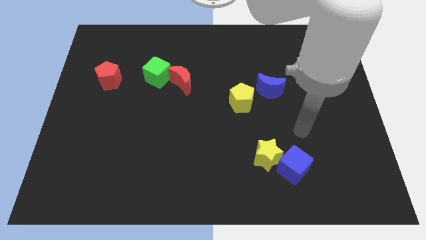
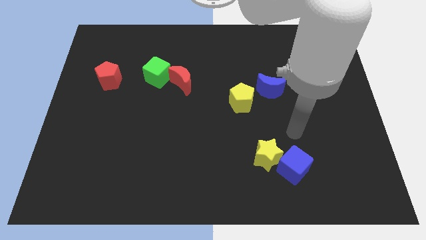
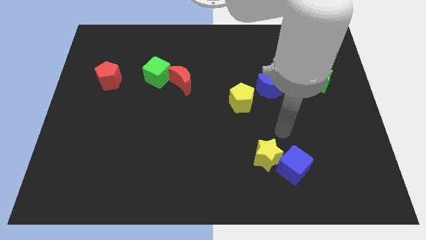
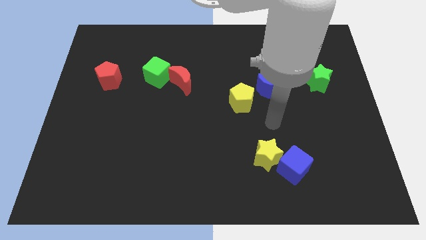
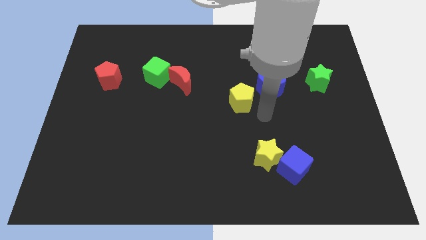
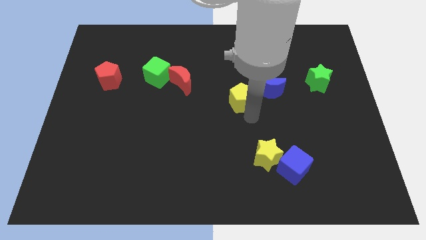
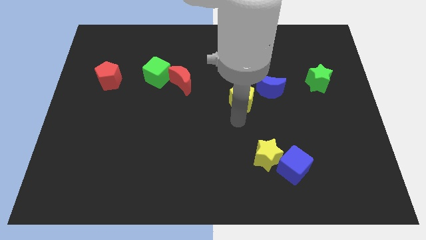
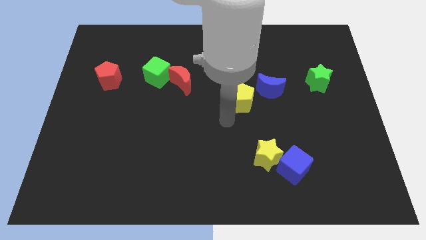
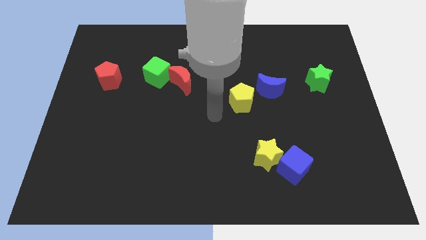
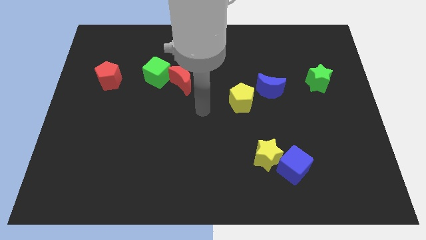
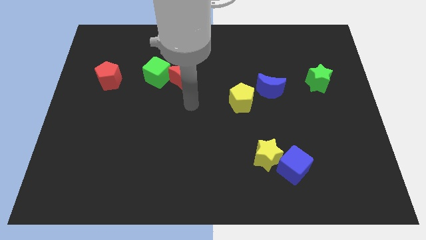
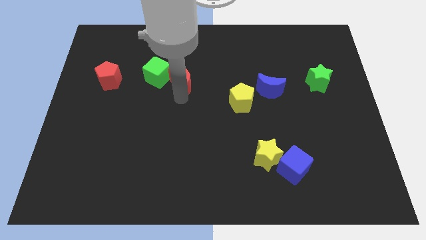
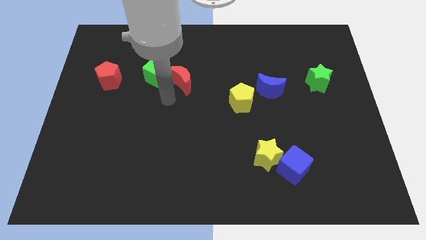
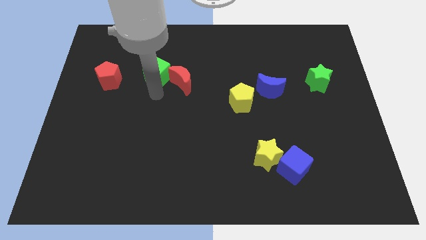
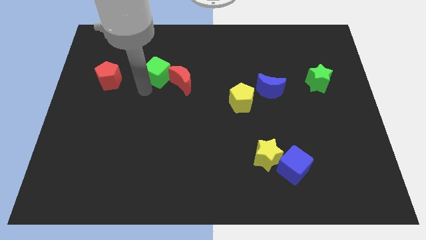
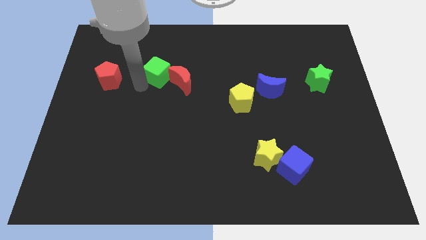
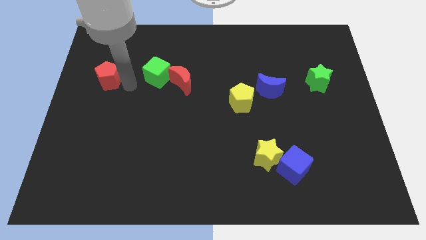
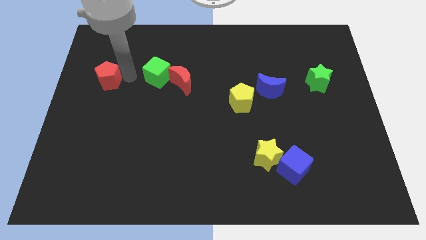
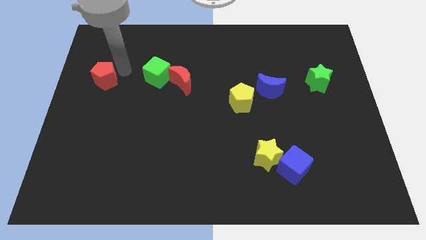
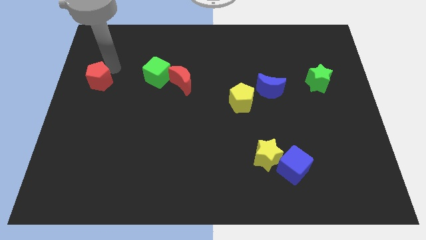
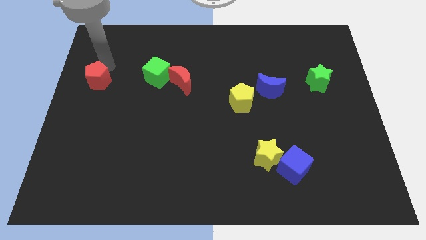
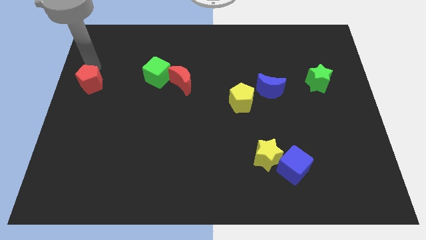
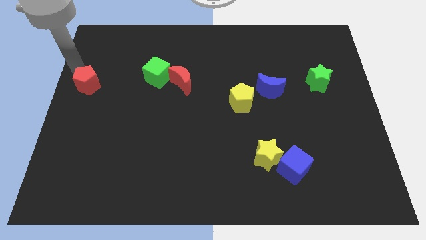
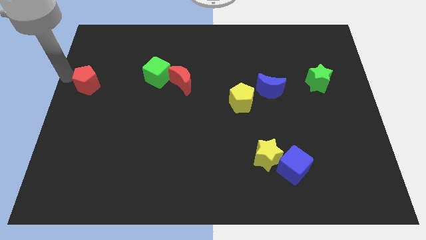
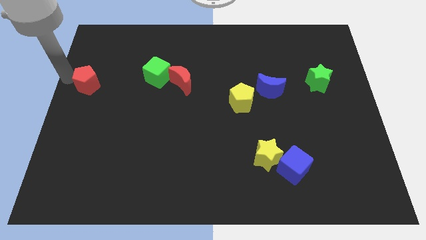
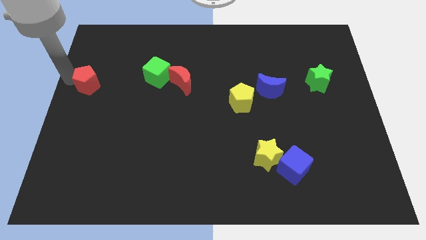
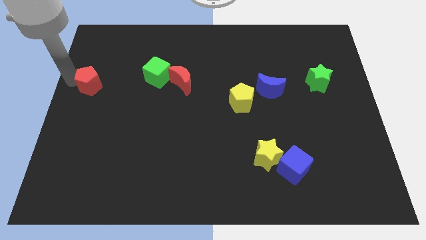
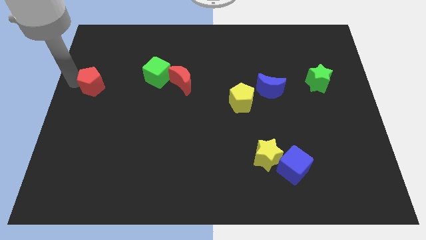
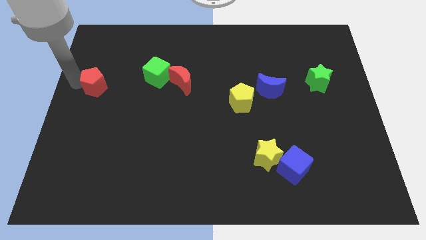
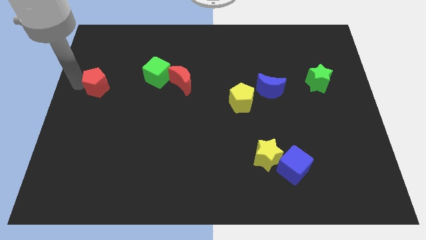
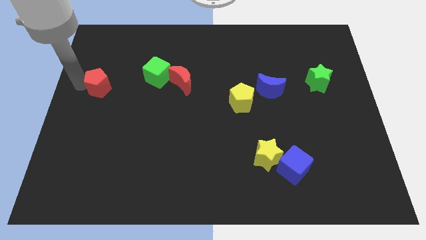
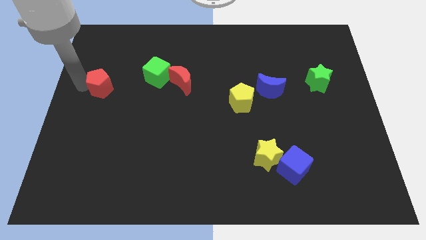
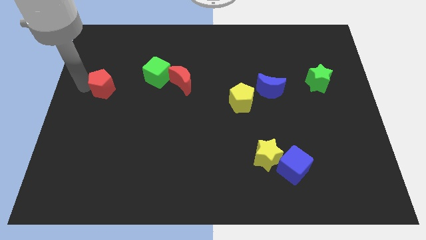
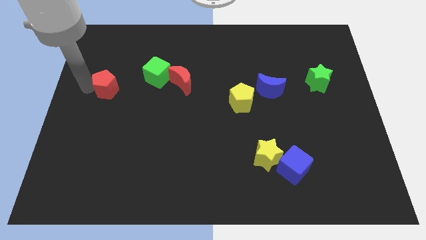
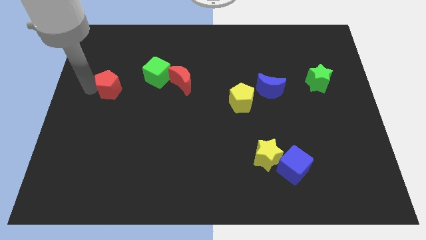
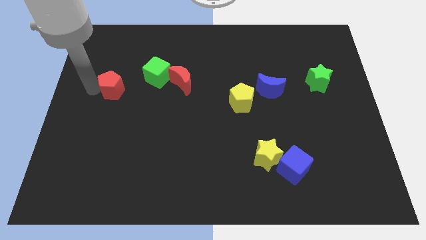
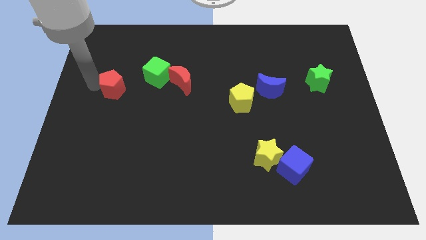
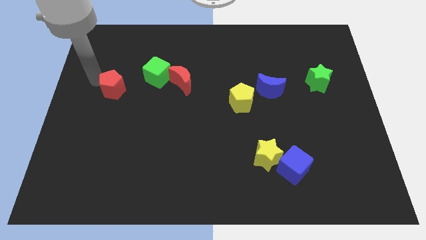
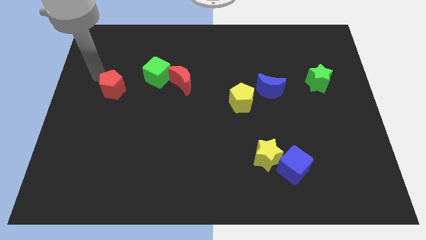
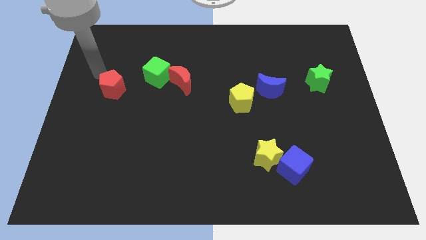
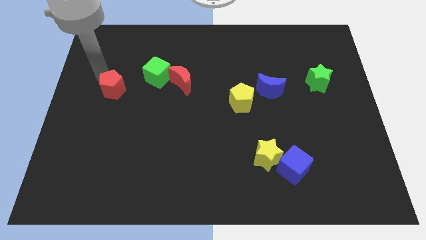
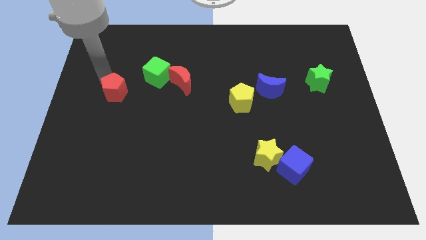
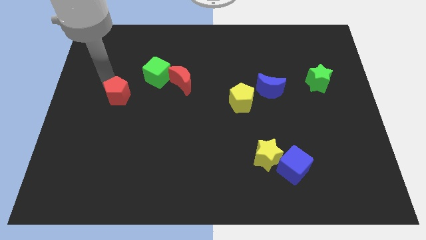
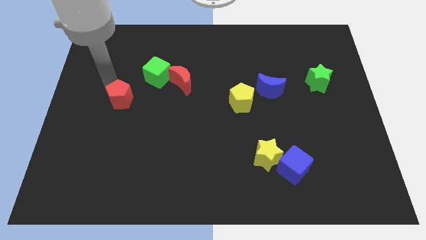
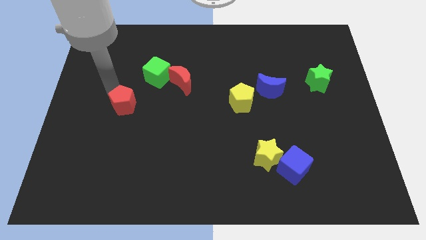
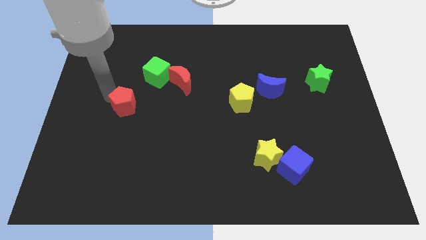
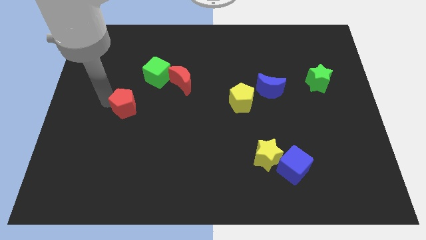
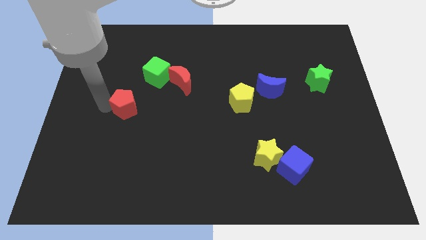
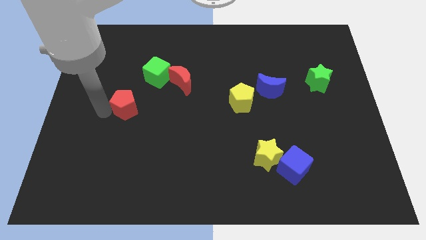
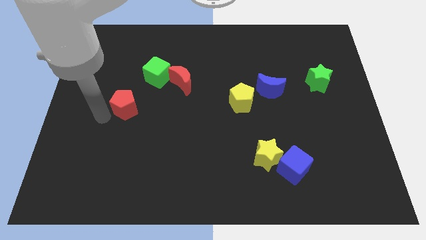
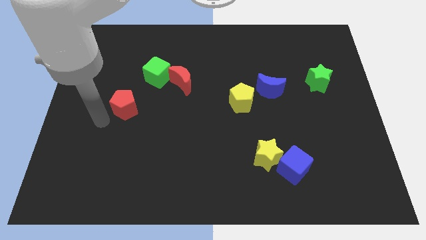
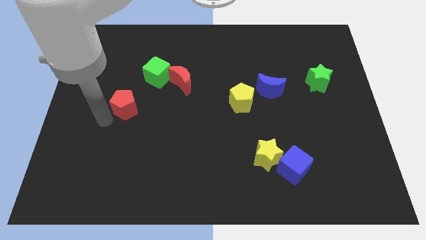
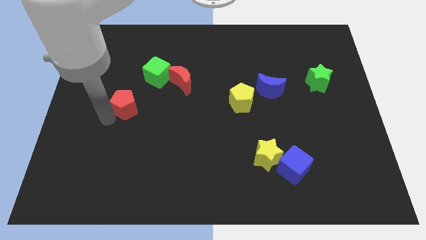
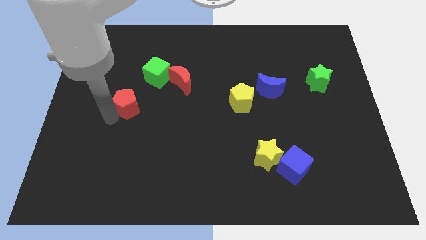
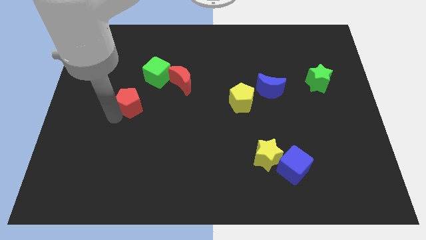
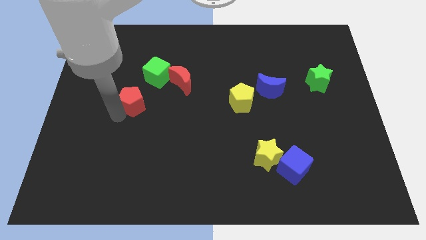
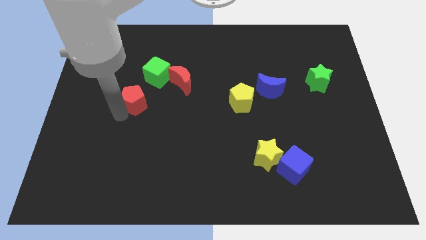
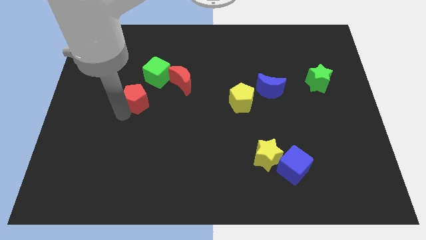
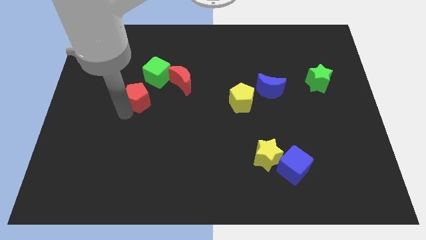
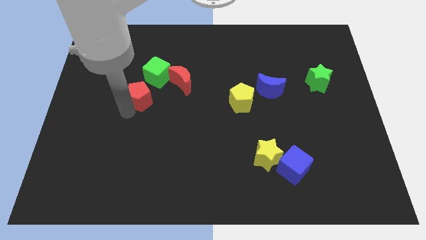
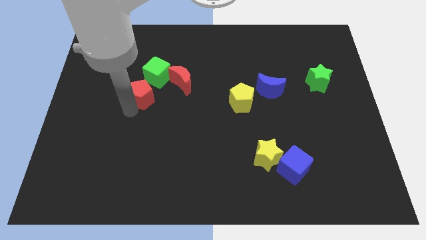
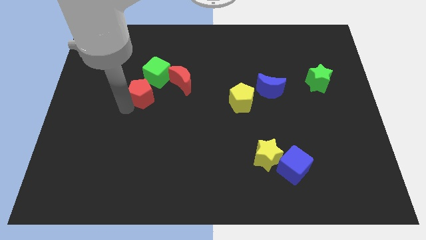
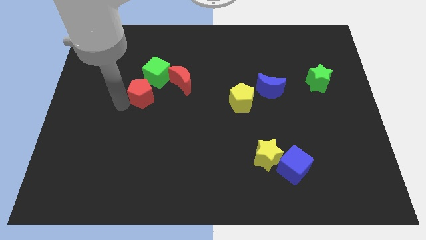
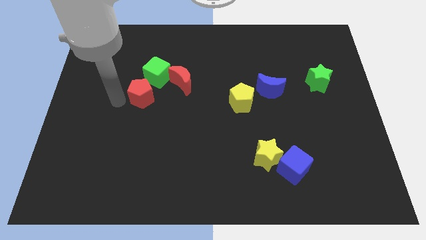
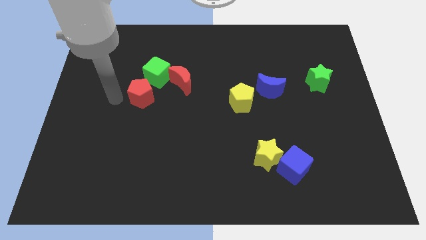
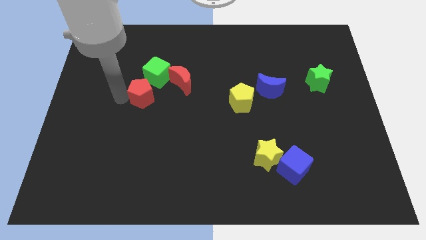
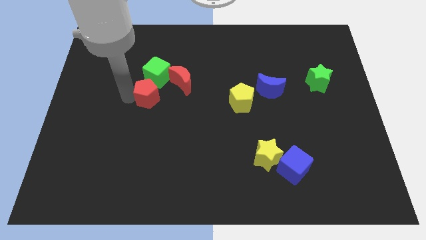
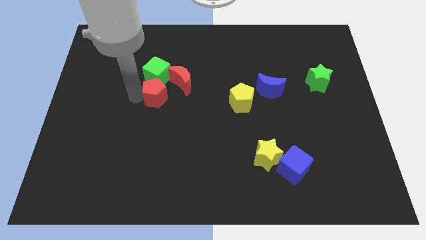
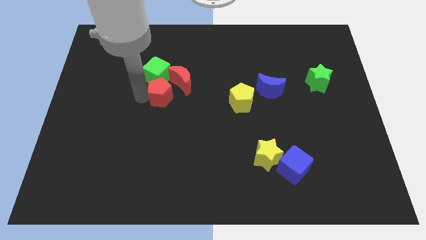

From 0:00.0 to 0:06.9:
push the red pentagon to the center
